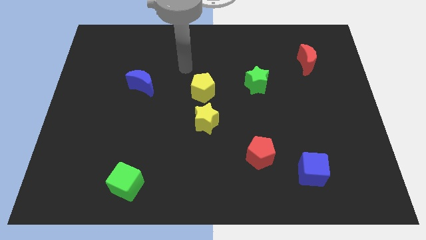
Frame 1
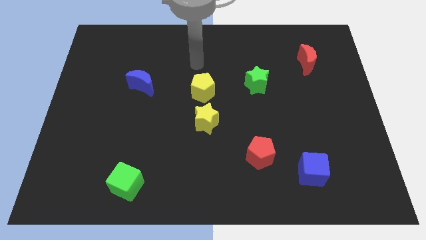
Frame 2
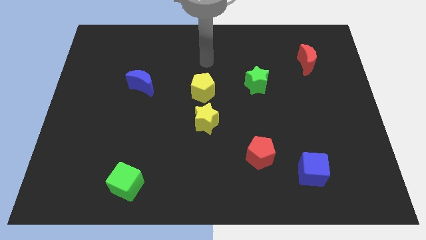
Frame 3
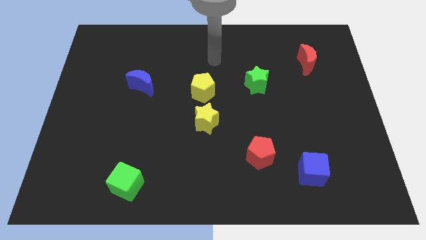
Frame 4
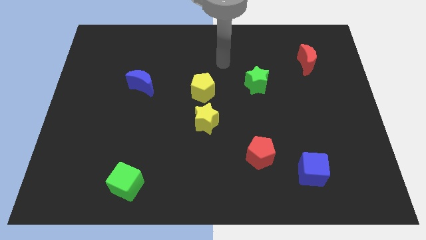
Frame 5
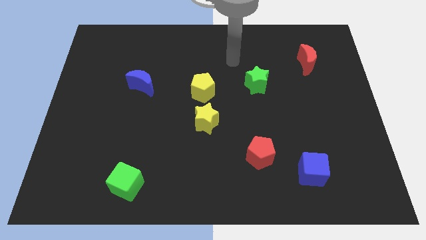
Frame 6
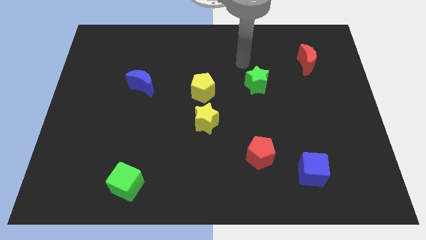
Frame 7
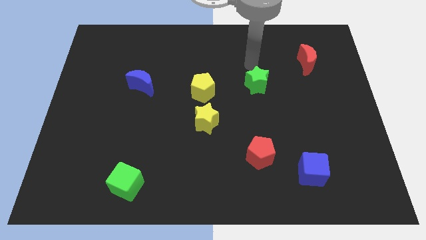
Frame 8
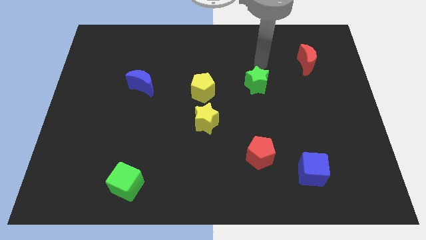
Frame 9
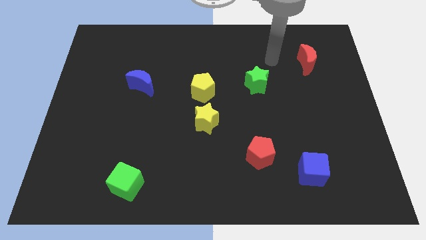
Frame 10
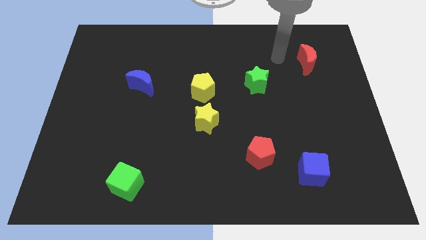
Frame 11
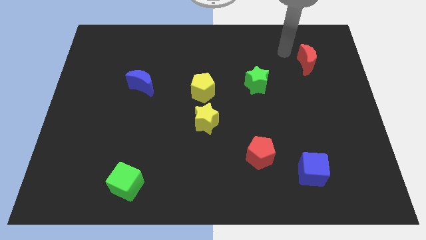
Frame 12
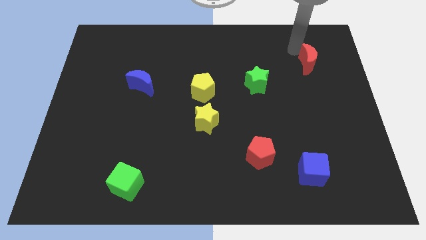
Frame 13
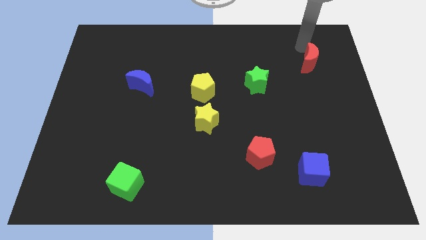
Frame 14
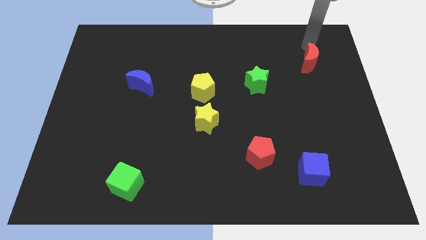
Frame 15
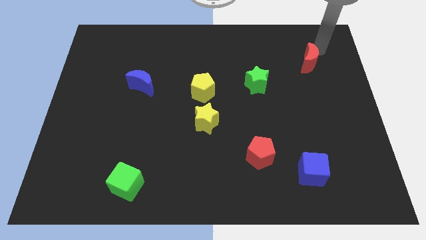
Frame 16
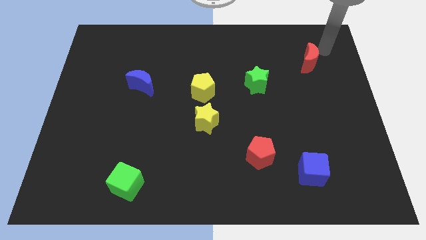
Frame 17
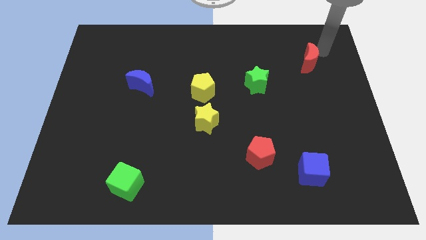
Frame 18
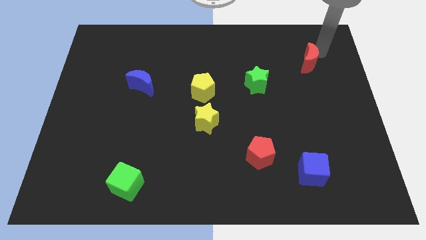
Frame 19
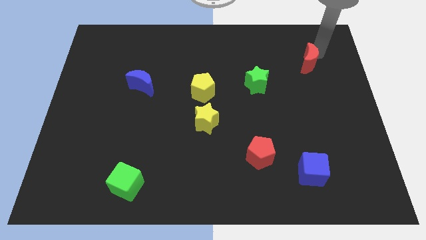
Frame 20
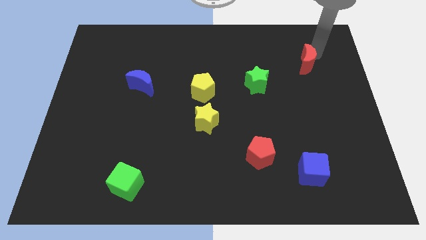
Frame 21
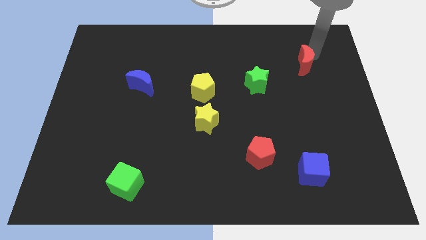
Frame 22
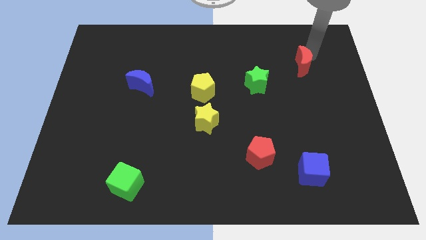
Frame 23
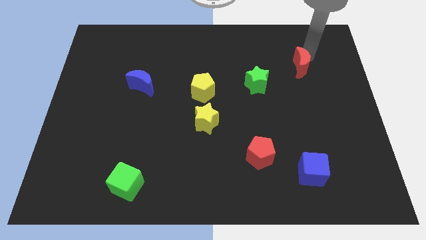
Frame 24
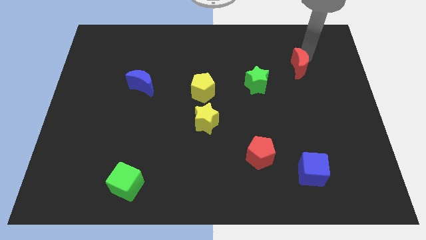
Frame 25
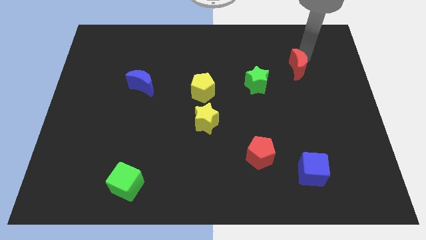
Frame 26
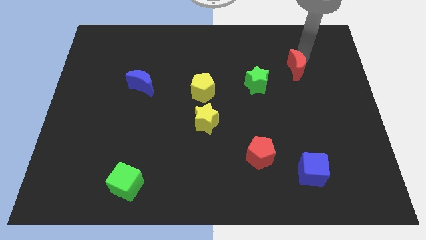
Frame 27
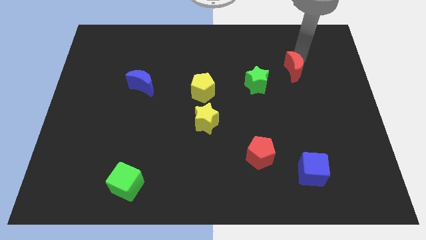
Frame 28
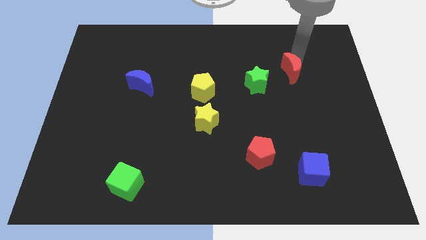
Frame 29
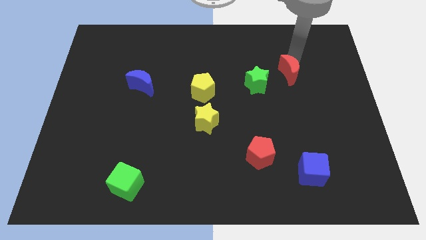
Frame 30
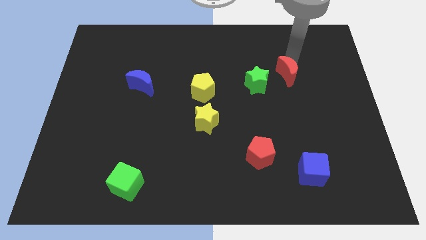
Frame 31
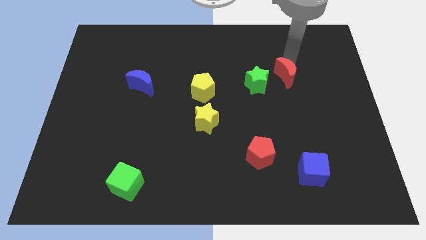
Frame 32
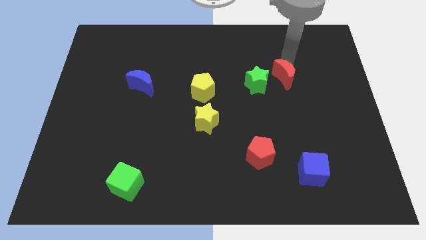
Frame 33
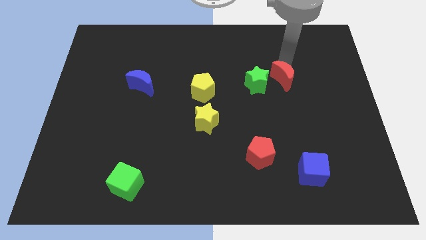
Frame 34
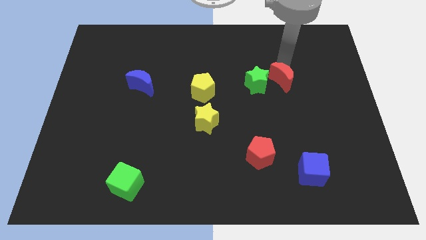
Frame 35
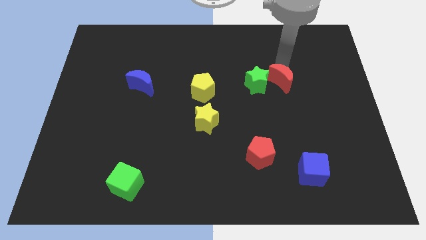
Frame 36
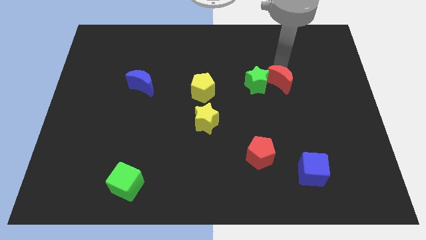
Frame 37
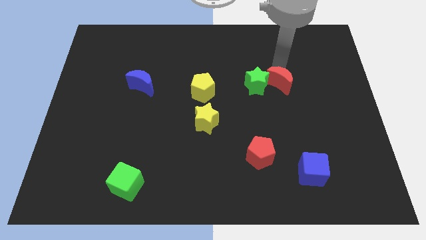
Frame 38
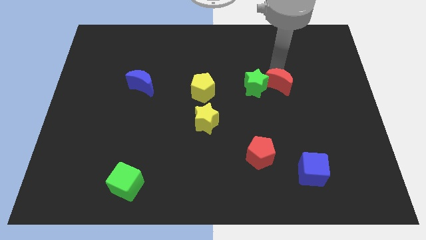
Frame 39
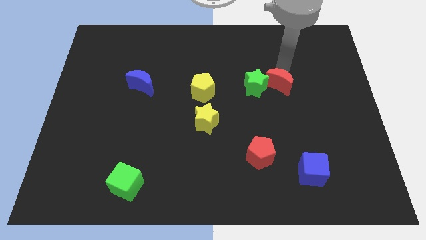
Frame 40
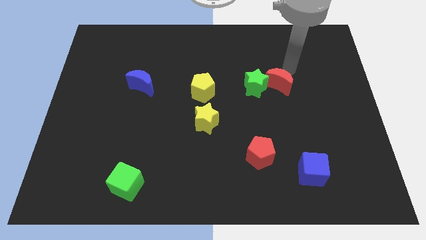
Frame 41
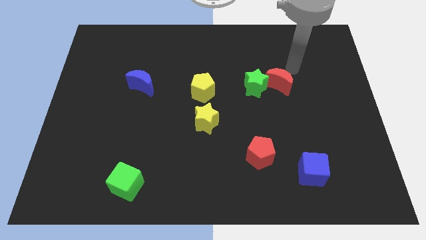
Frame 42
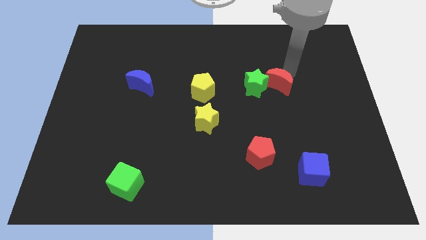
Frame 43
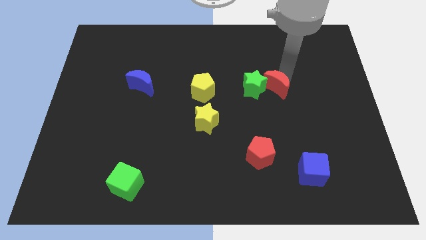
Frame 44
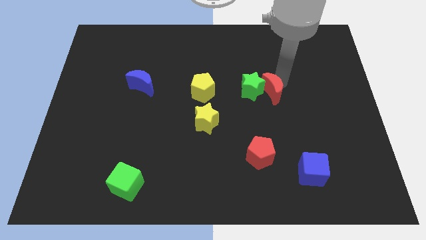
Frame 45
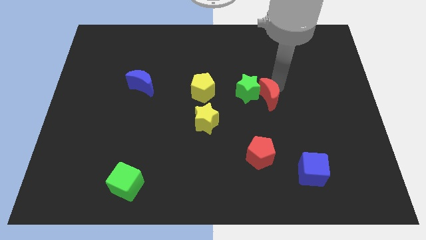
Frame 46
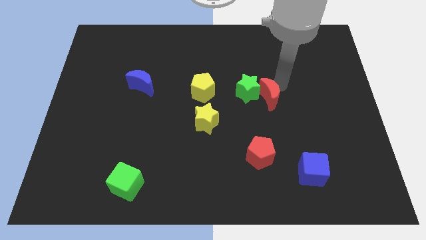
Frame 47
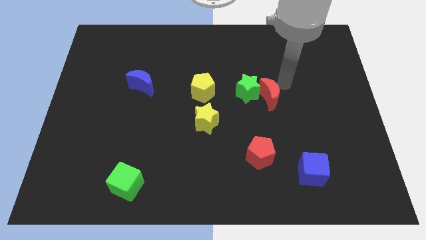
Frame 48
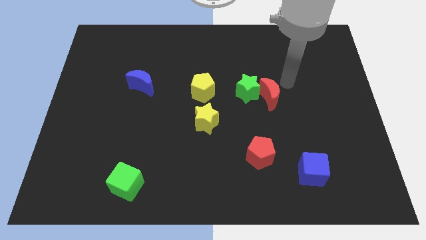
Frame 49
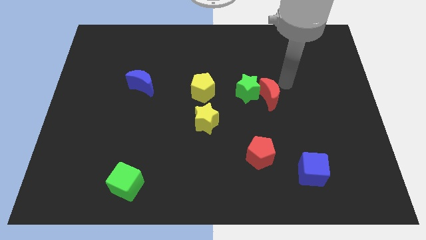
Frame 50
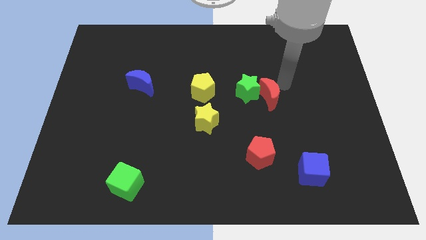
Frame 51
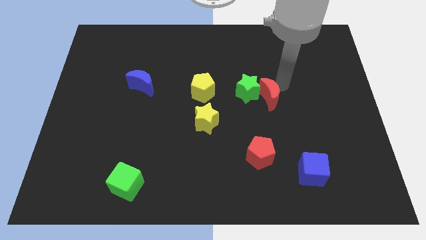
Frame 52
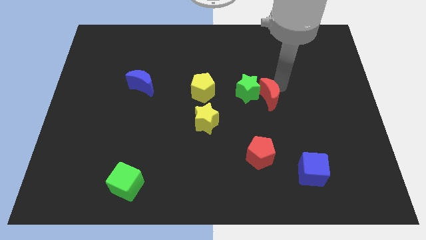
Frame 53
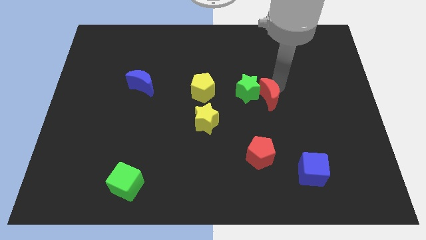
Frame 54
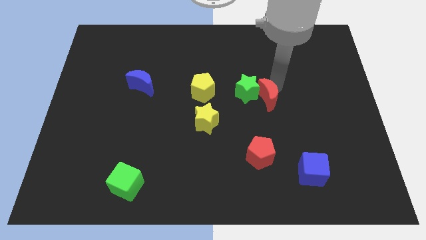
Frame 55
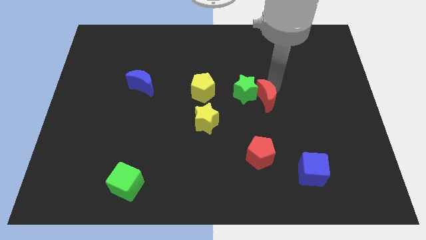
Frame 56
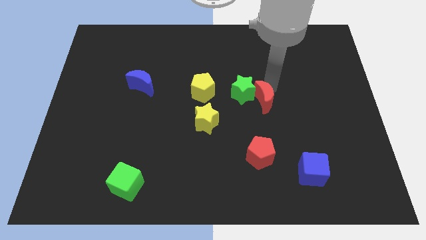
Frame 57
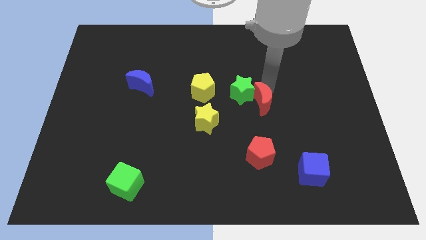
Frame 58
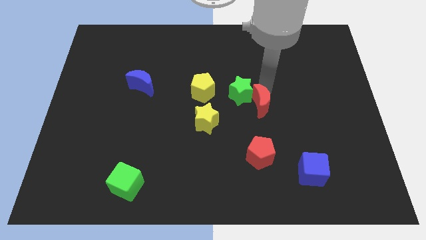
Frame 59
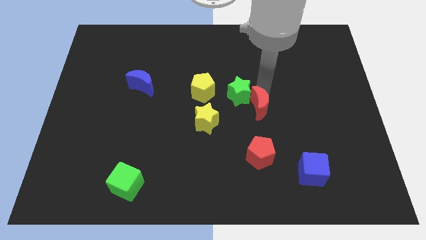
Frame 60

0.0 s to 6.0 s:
move the red moon down and left diagonally

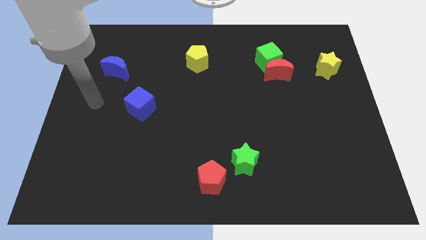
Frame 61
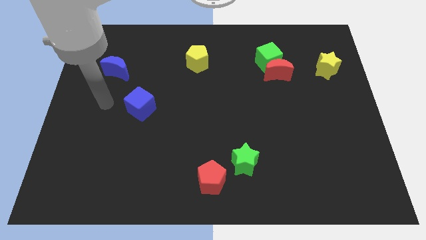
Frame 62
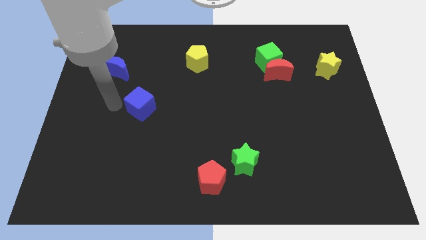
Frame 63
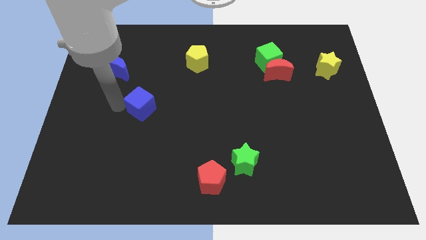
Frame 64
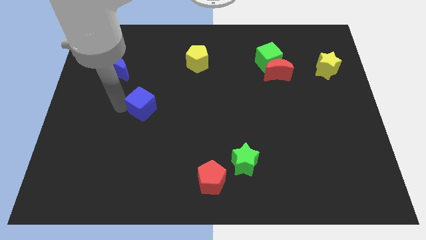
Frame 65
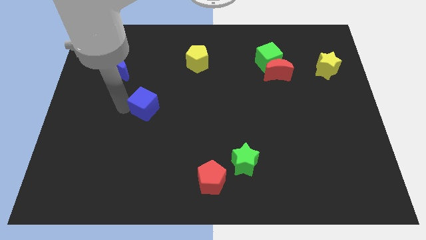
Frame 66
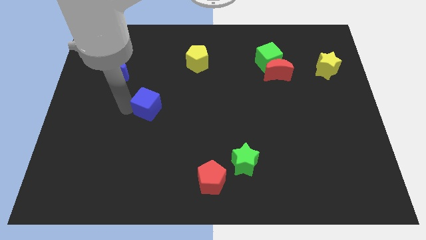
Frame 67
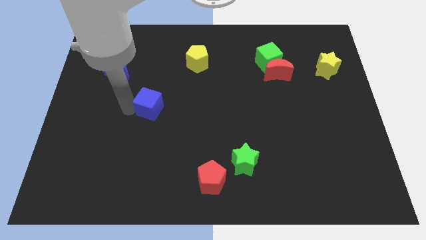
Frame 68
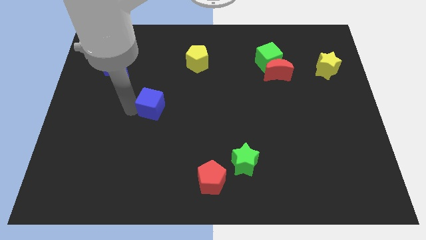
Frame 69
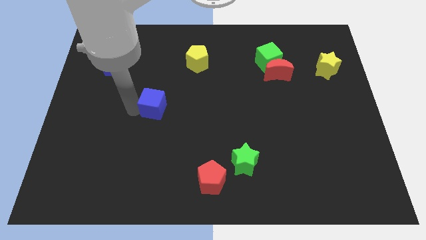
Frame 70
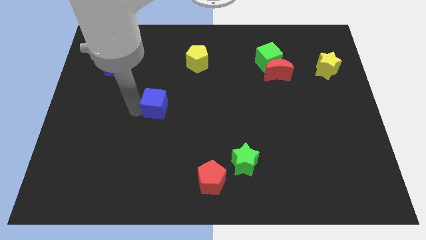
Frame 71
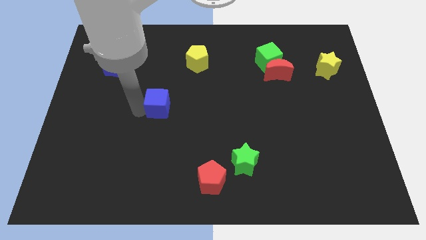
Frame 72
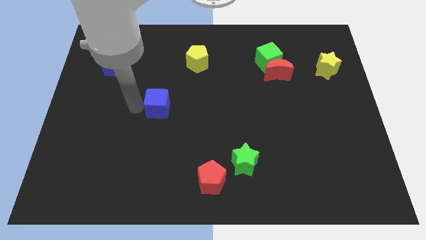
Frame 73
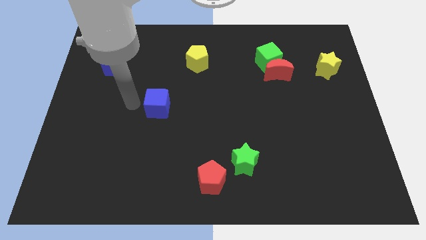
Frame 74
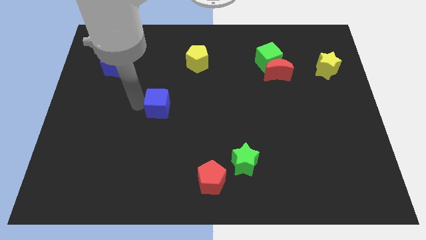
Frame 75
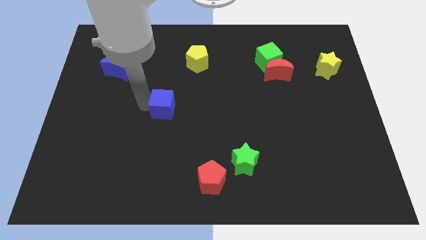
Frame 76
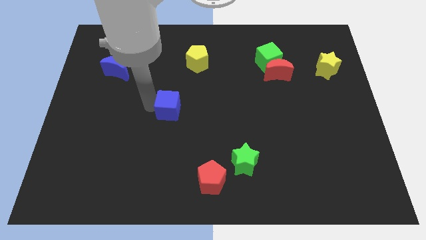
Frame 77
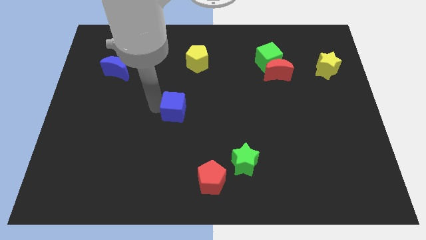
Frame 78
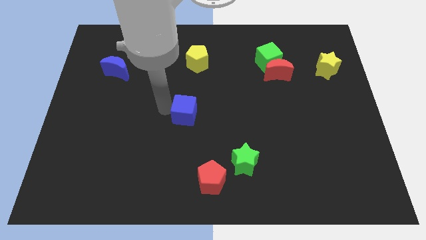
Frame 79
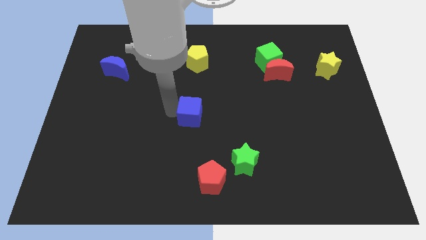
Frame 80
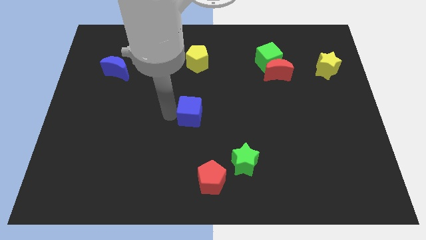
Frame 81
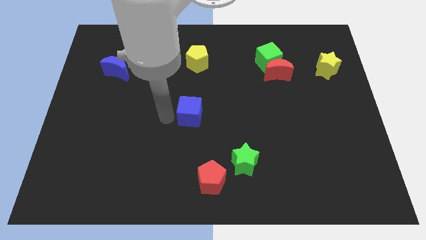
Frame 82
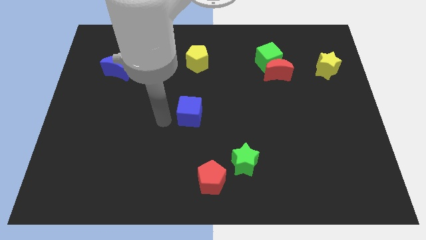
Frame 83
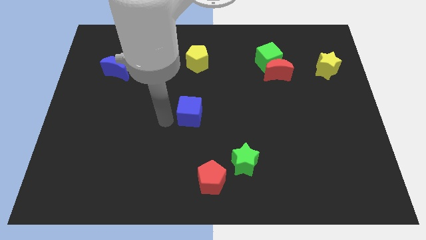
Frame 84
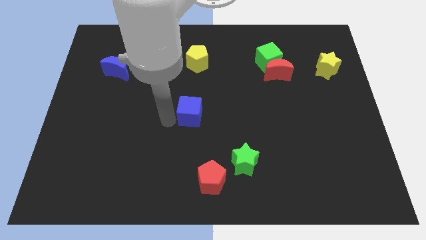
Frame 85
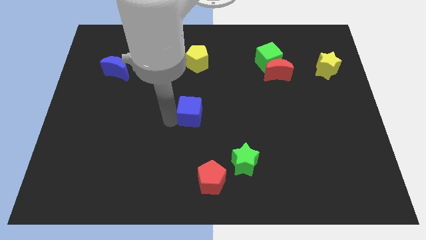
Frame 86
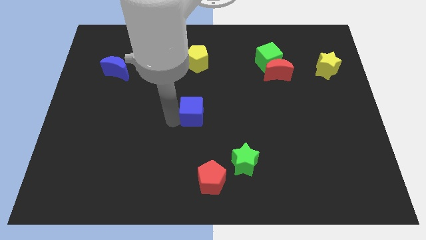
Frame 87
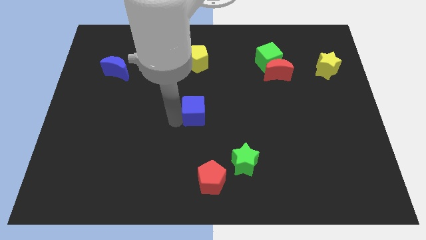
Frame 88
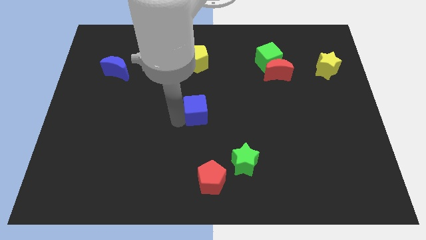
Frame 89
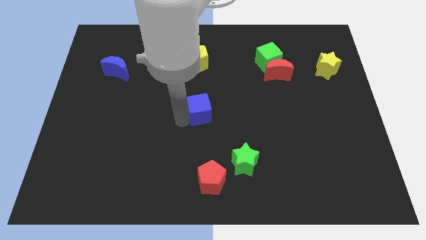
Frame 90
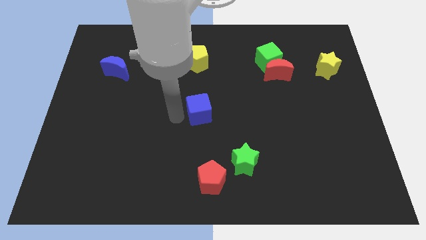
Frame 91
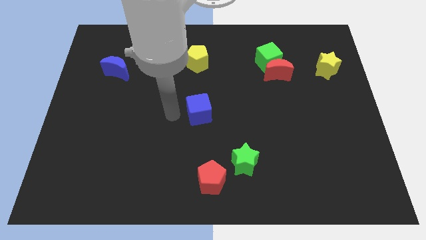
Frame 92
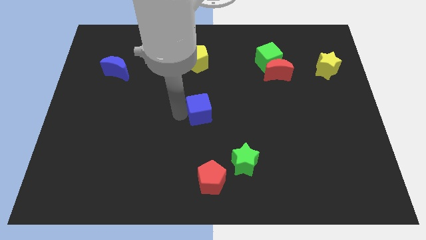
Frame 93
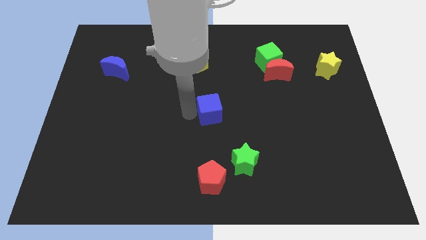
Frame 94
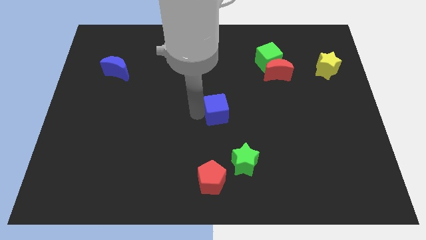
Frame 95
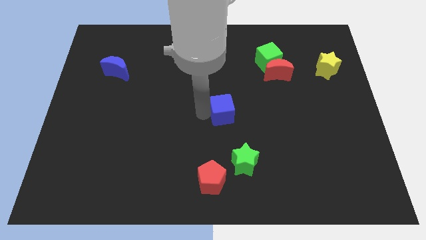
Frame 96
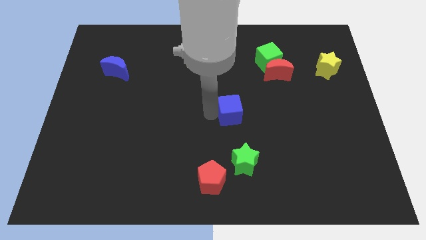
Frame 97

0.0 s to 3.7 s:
push the blue cube right
